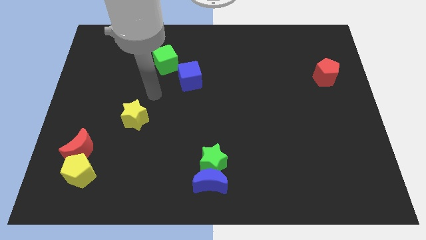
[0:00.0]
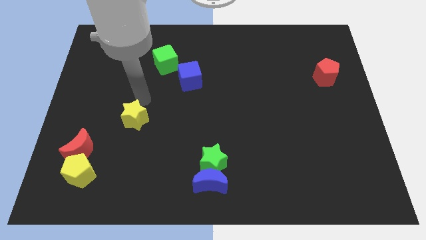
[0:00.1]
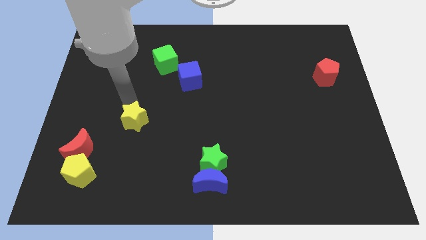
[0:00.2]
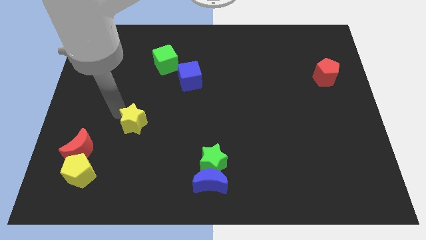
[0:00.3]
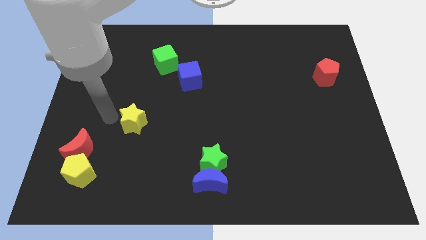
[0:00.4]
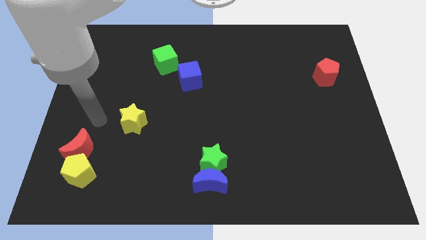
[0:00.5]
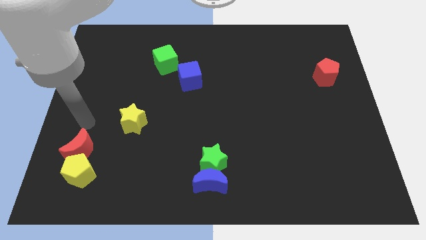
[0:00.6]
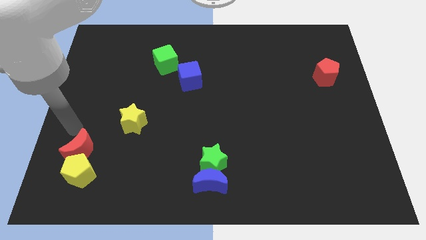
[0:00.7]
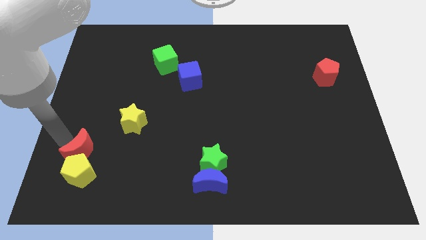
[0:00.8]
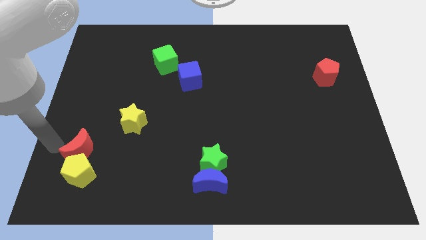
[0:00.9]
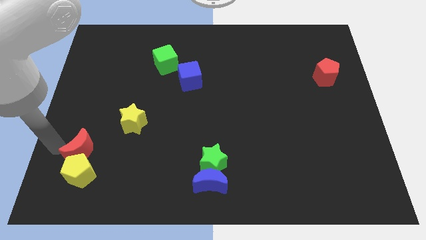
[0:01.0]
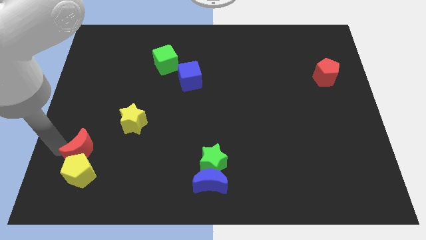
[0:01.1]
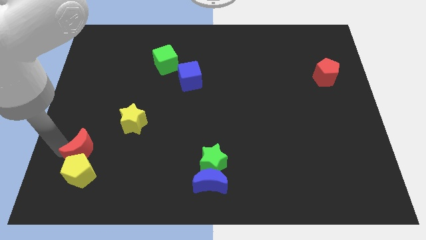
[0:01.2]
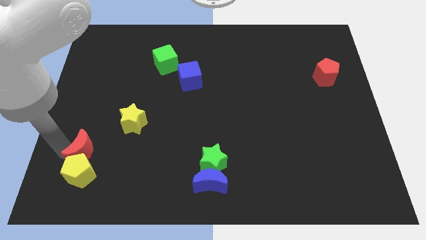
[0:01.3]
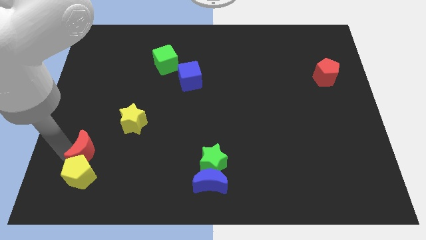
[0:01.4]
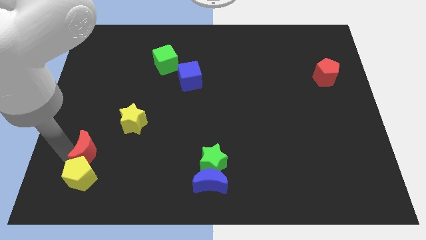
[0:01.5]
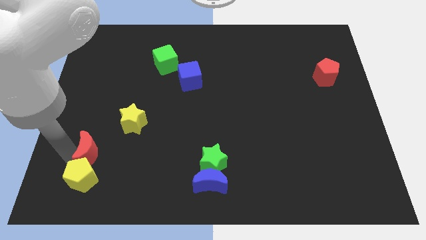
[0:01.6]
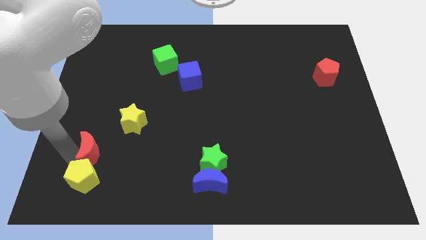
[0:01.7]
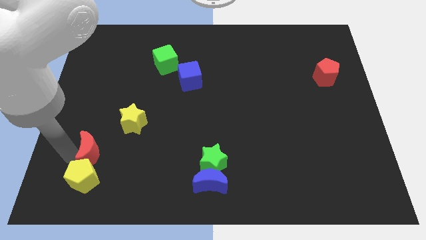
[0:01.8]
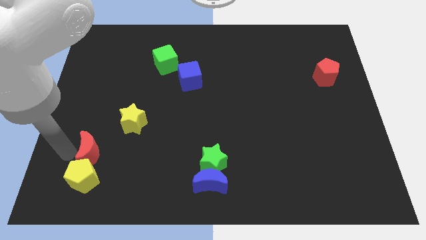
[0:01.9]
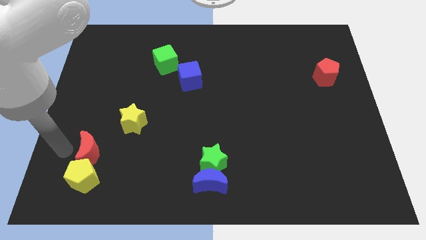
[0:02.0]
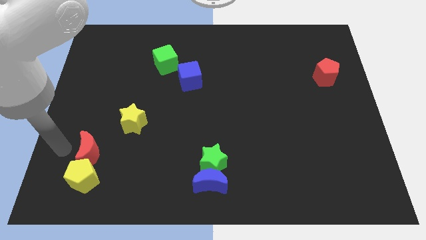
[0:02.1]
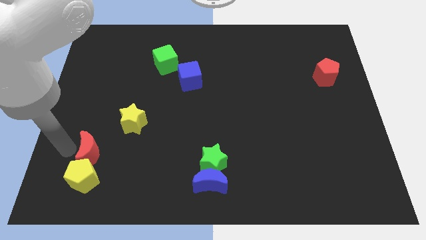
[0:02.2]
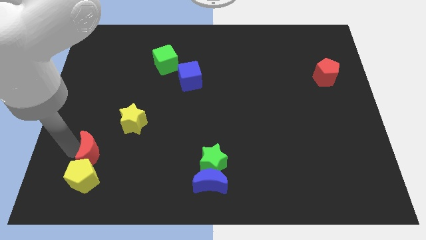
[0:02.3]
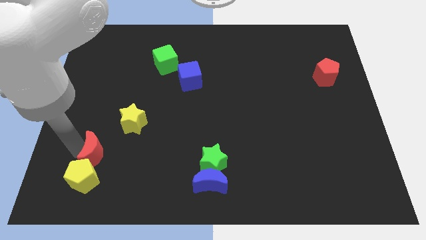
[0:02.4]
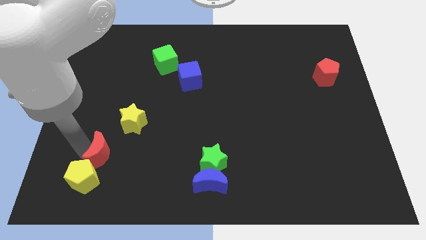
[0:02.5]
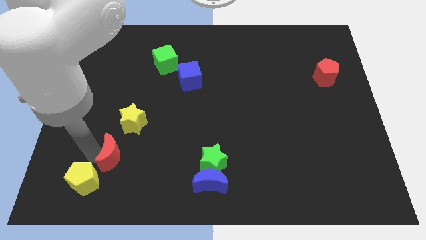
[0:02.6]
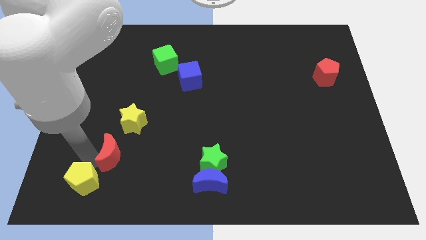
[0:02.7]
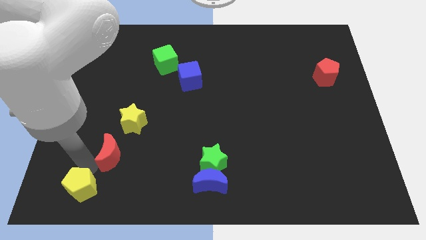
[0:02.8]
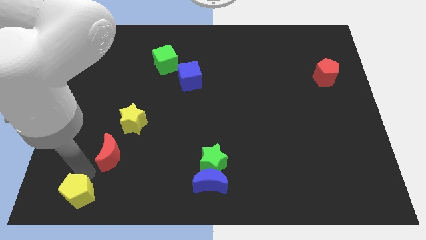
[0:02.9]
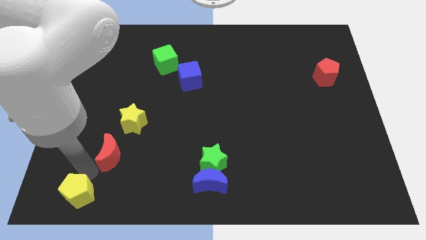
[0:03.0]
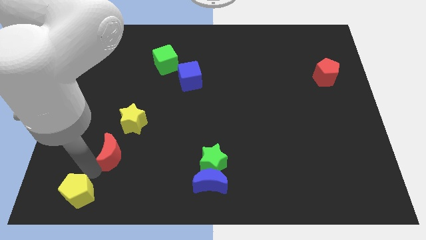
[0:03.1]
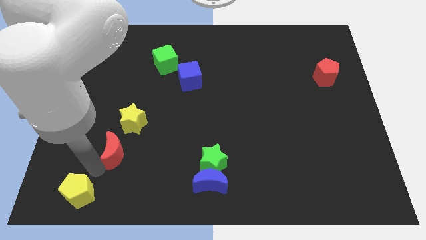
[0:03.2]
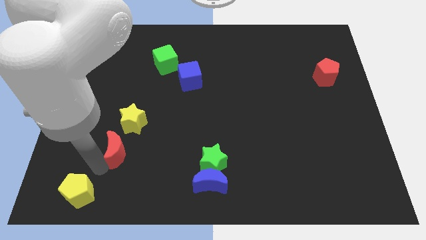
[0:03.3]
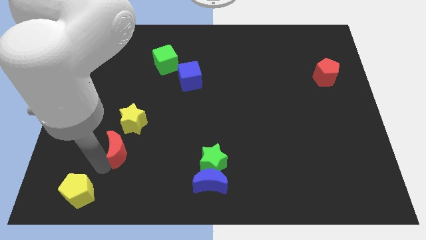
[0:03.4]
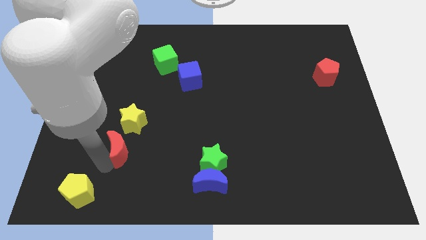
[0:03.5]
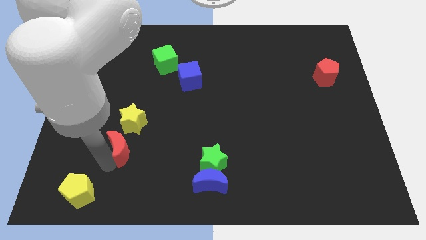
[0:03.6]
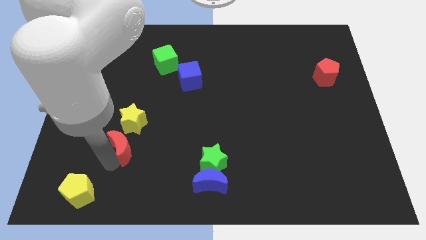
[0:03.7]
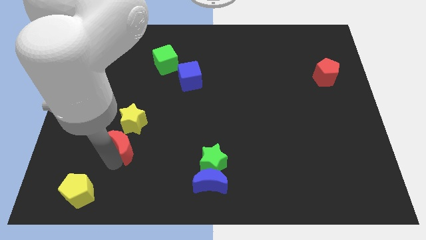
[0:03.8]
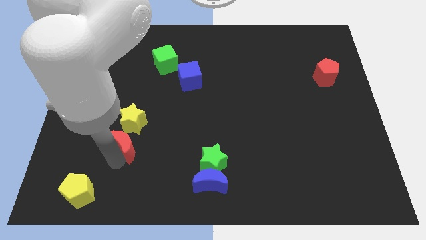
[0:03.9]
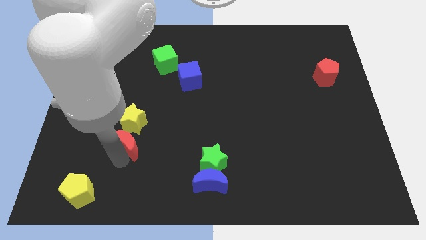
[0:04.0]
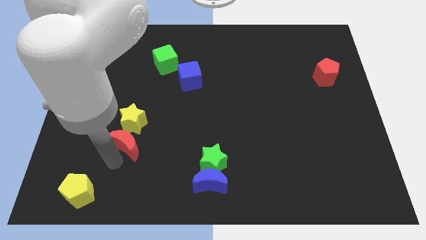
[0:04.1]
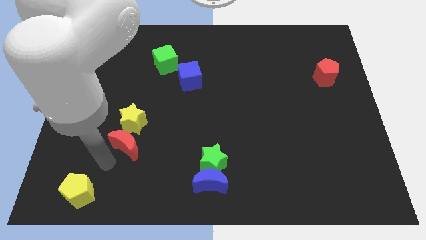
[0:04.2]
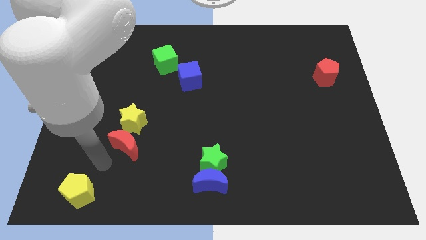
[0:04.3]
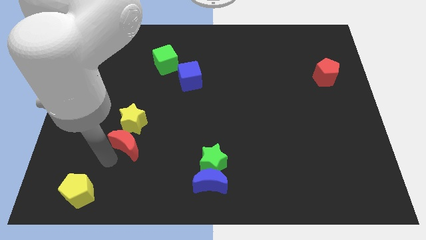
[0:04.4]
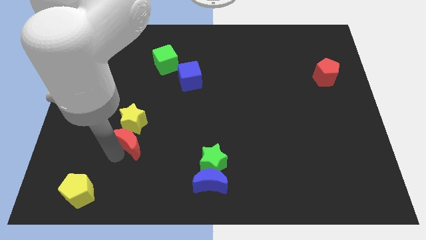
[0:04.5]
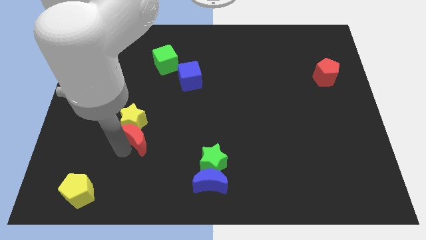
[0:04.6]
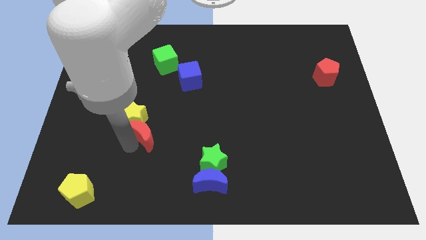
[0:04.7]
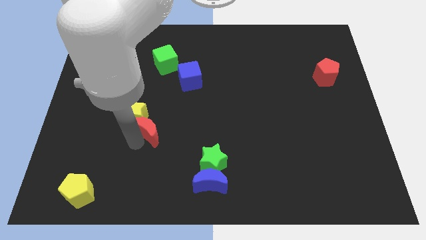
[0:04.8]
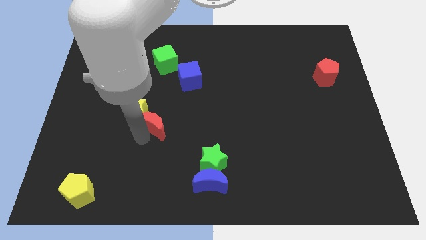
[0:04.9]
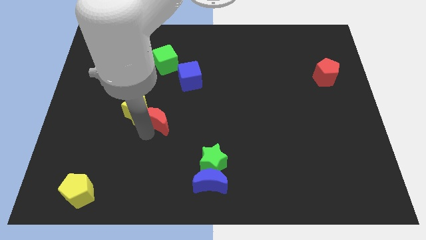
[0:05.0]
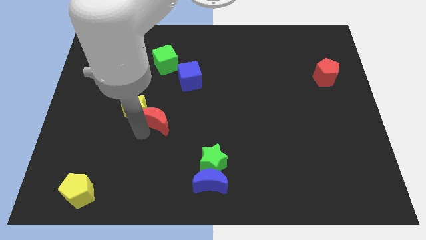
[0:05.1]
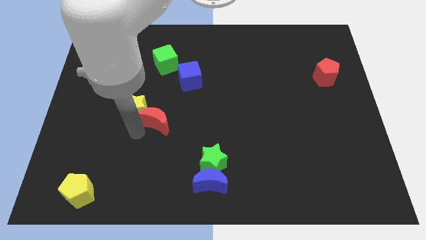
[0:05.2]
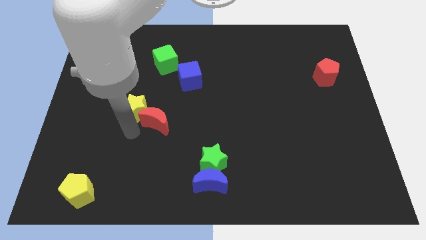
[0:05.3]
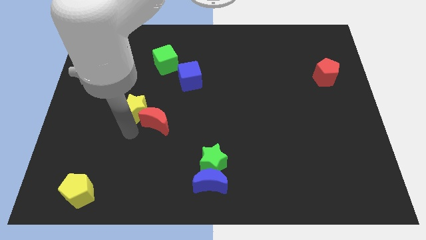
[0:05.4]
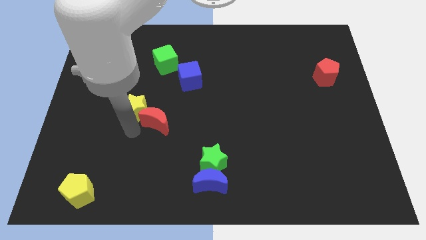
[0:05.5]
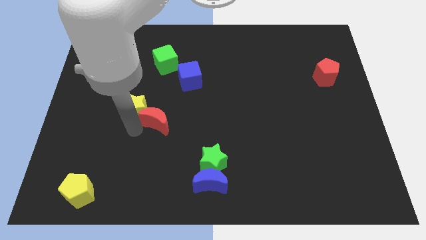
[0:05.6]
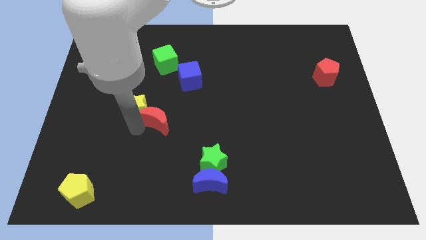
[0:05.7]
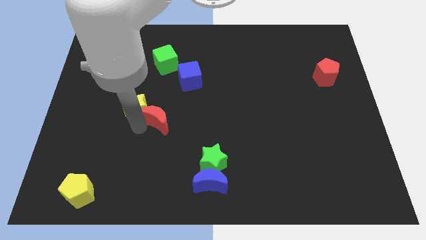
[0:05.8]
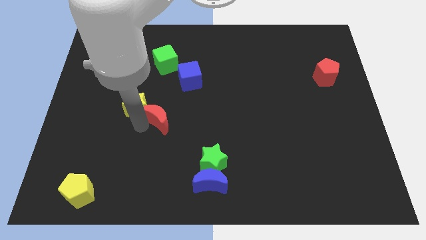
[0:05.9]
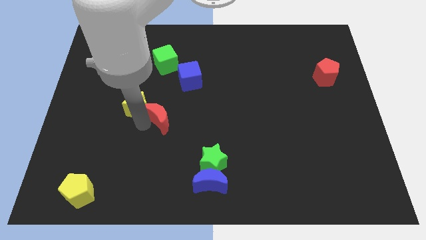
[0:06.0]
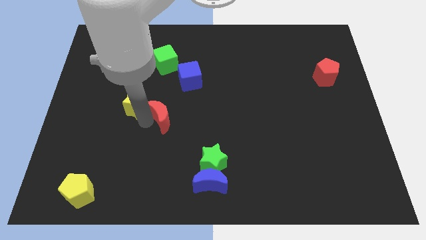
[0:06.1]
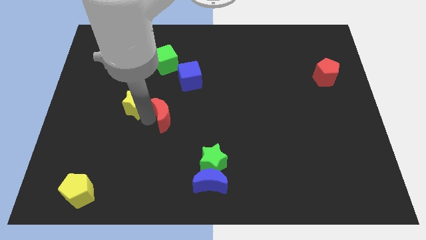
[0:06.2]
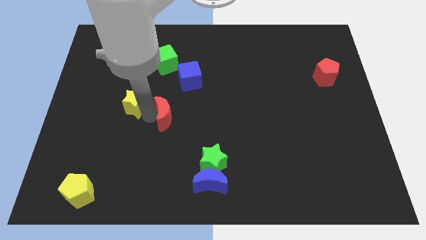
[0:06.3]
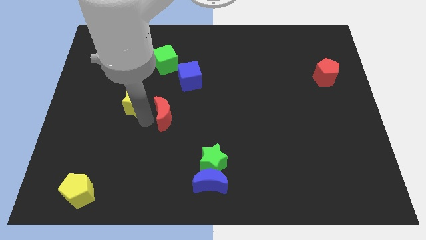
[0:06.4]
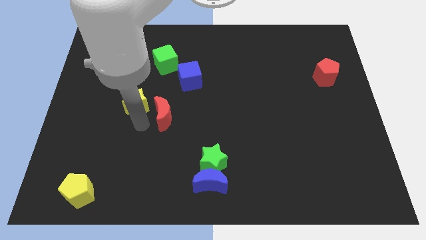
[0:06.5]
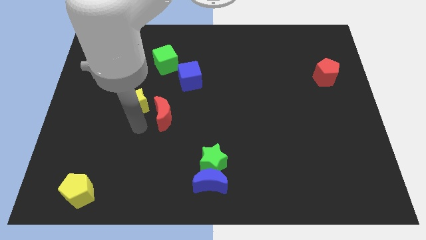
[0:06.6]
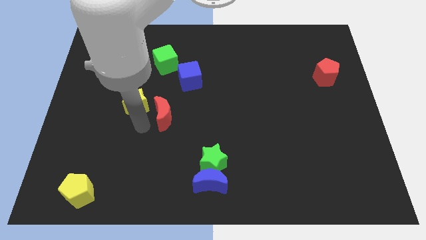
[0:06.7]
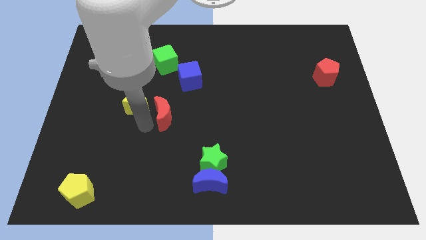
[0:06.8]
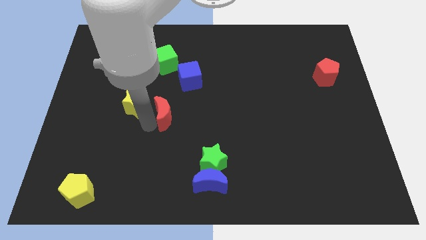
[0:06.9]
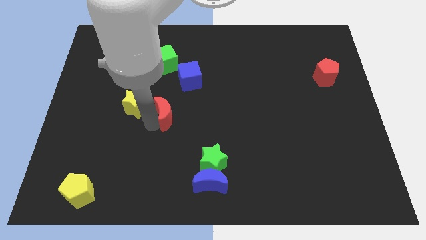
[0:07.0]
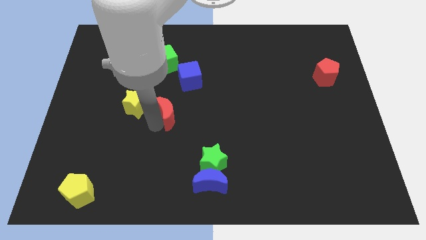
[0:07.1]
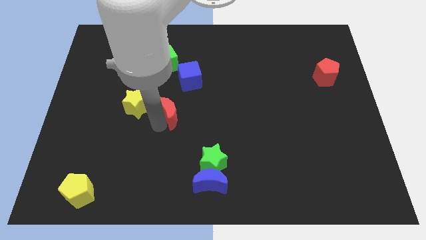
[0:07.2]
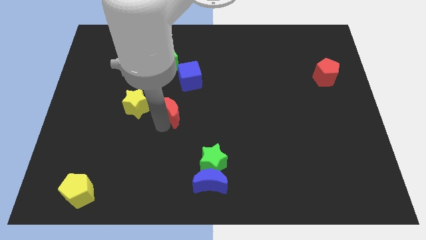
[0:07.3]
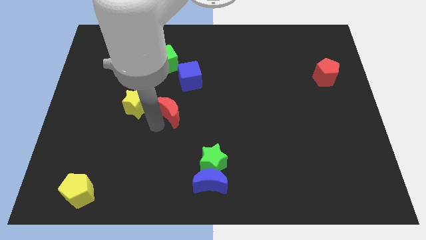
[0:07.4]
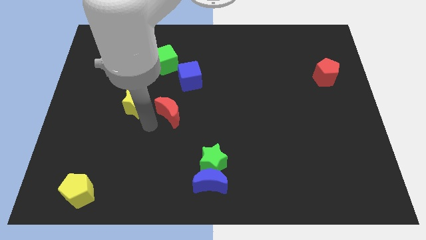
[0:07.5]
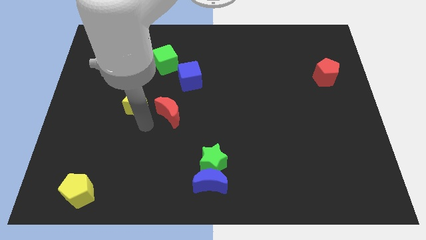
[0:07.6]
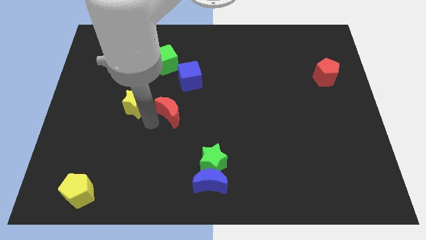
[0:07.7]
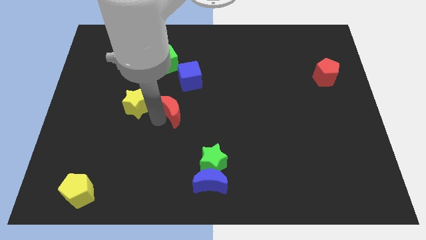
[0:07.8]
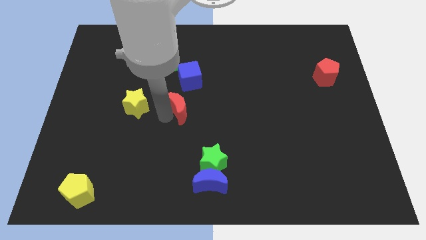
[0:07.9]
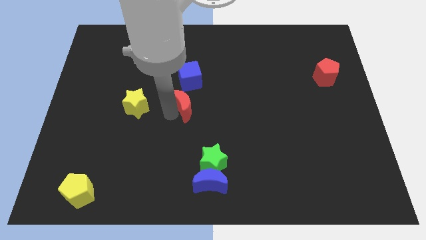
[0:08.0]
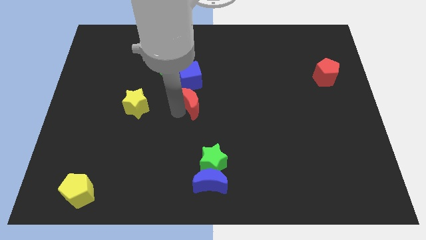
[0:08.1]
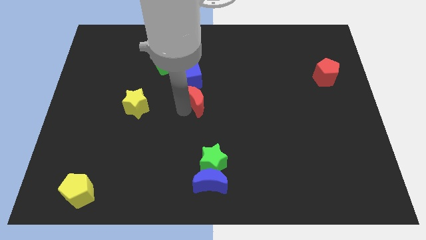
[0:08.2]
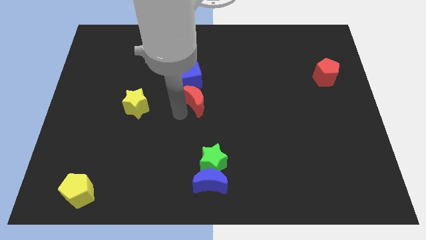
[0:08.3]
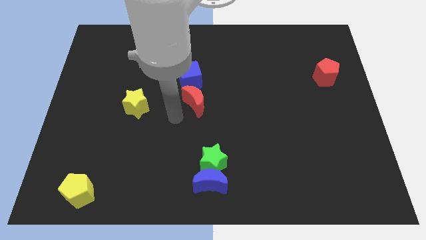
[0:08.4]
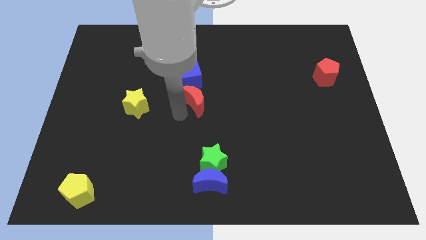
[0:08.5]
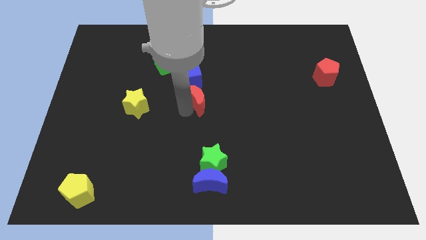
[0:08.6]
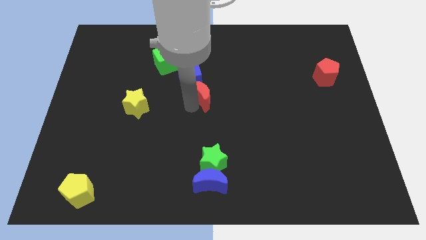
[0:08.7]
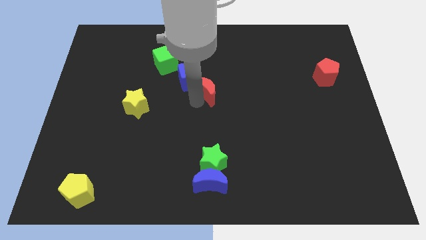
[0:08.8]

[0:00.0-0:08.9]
move the red moon to the right side of the blue cube
